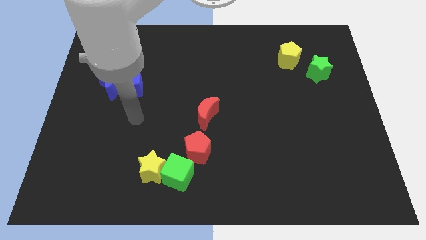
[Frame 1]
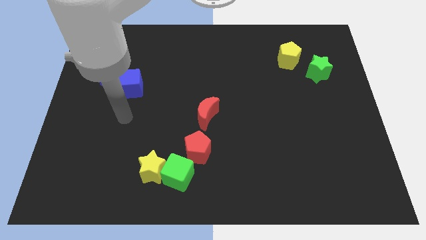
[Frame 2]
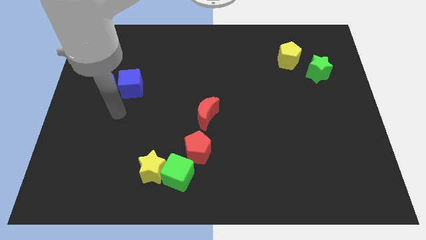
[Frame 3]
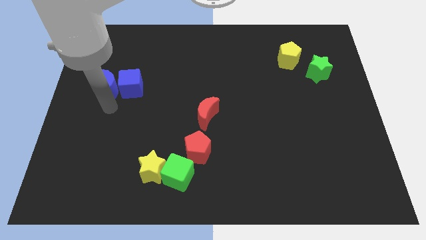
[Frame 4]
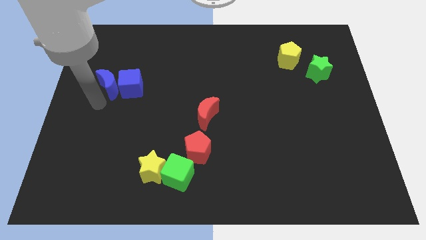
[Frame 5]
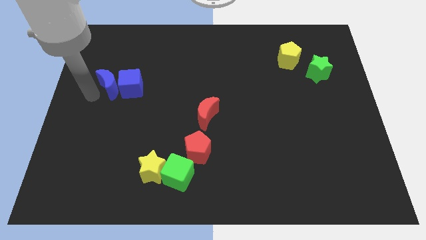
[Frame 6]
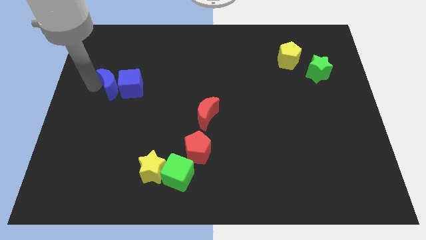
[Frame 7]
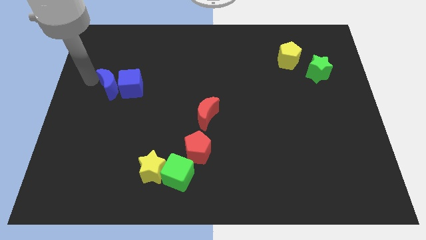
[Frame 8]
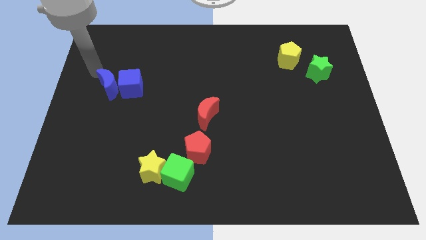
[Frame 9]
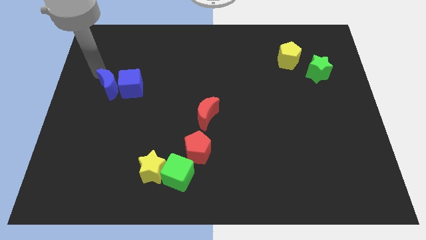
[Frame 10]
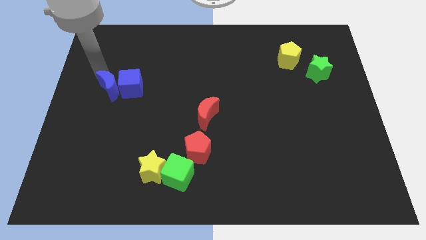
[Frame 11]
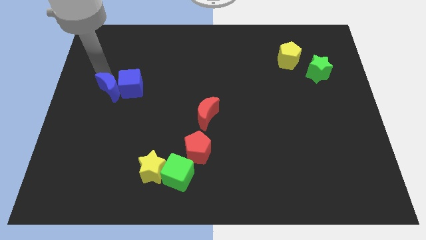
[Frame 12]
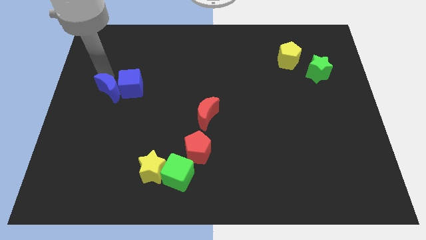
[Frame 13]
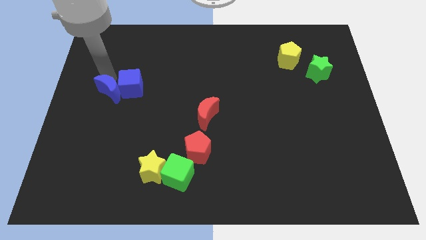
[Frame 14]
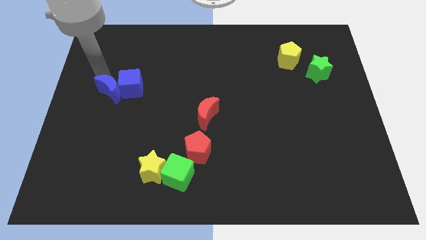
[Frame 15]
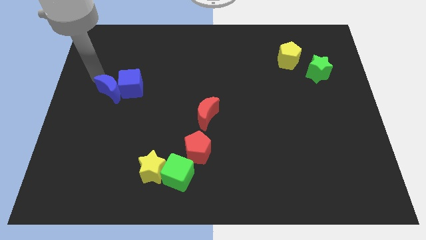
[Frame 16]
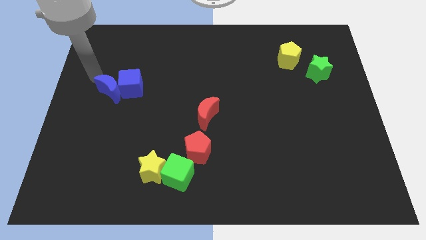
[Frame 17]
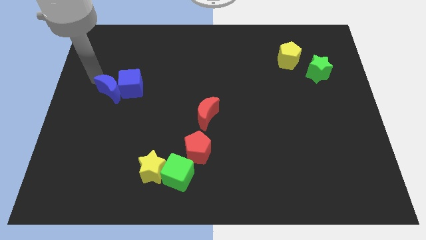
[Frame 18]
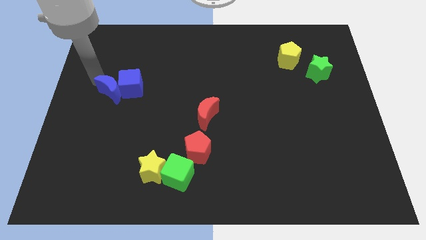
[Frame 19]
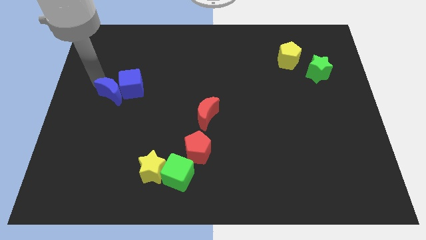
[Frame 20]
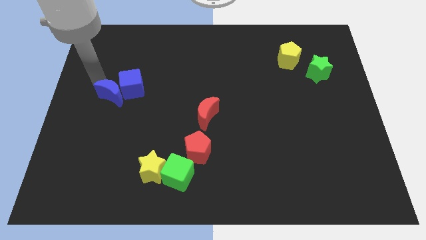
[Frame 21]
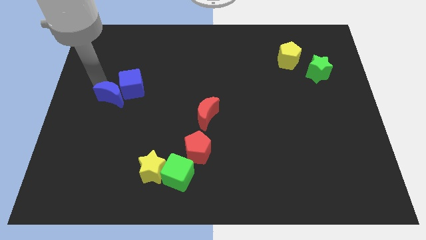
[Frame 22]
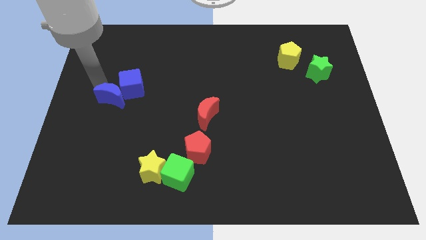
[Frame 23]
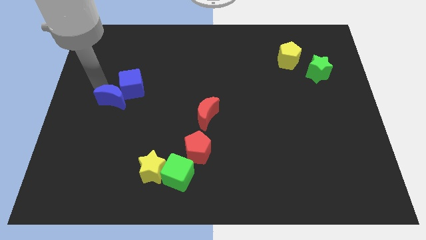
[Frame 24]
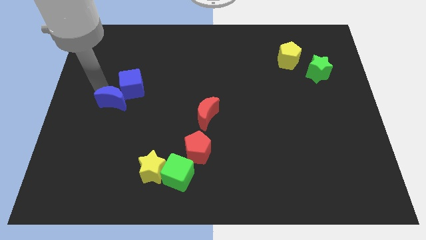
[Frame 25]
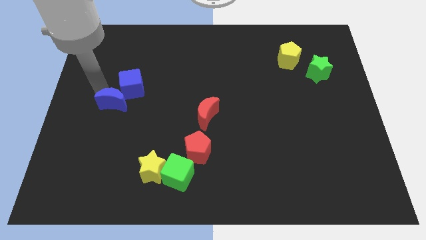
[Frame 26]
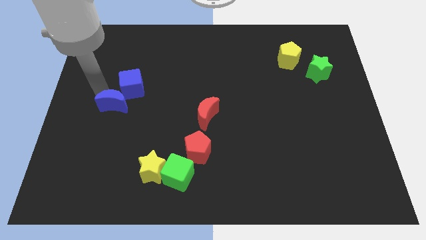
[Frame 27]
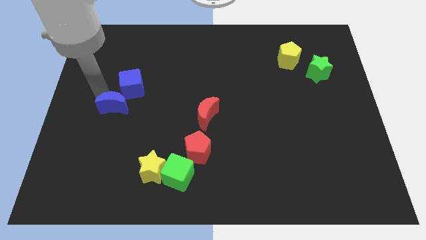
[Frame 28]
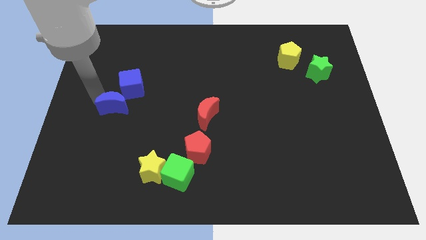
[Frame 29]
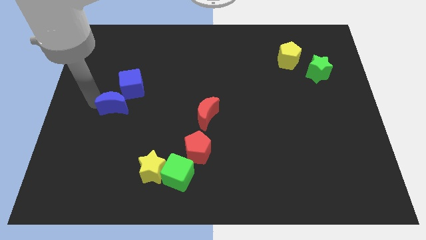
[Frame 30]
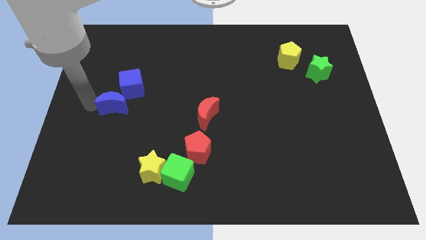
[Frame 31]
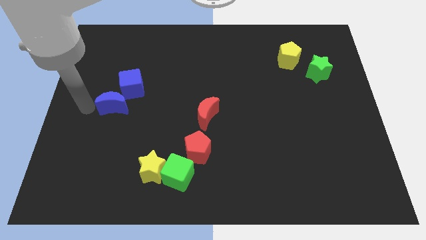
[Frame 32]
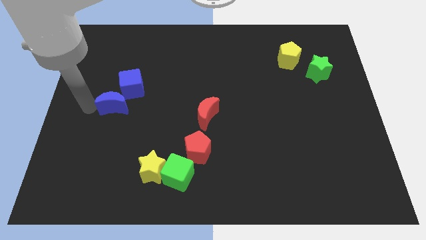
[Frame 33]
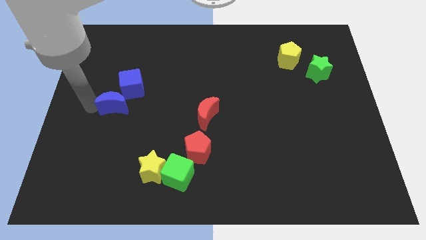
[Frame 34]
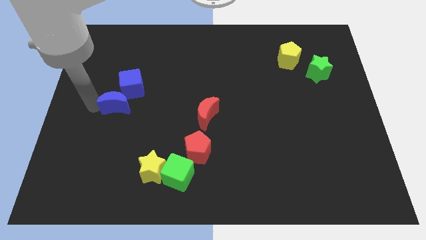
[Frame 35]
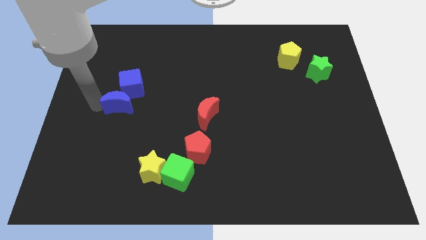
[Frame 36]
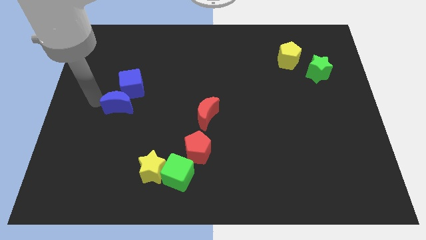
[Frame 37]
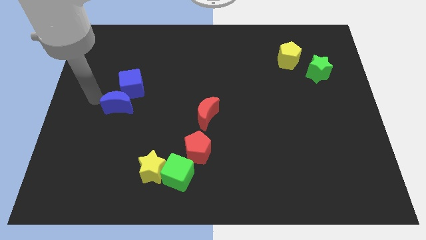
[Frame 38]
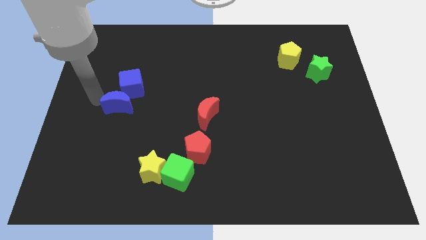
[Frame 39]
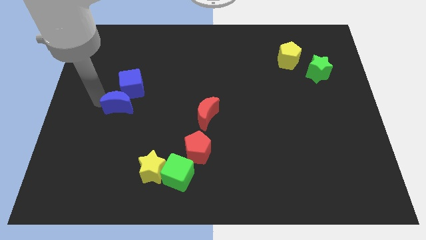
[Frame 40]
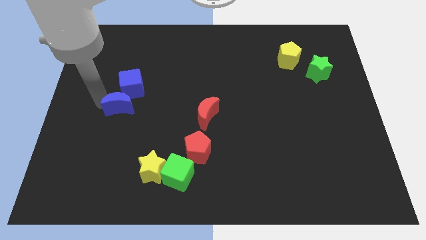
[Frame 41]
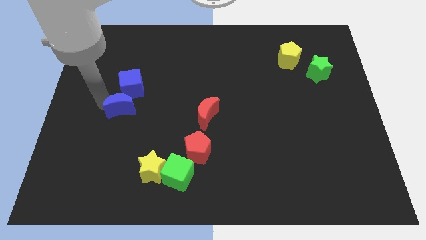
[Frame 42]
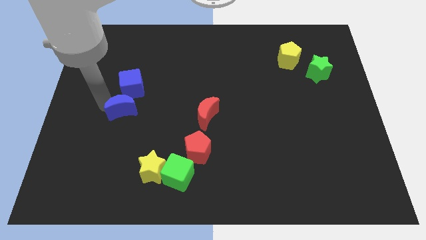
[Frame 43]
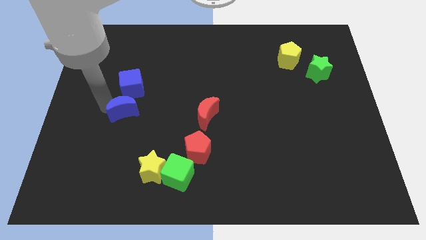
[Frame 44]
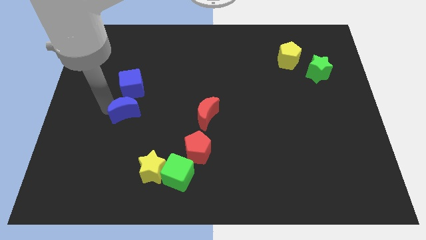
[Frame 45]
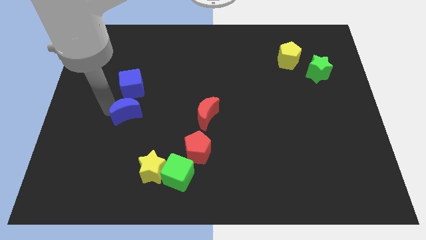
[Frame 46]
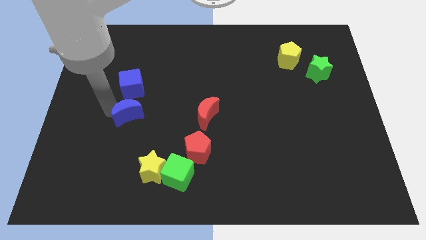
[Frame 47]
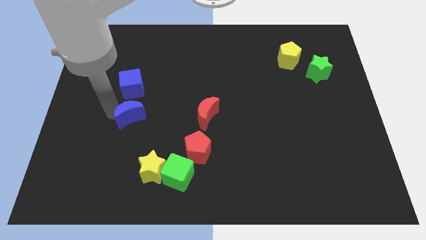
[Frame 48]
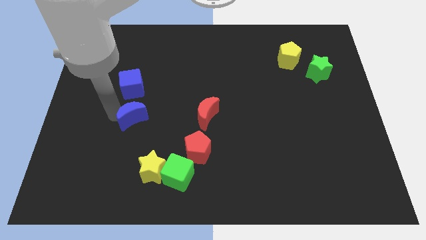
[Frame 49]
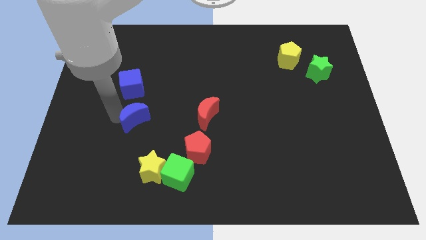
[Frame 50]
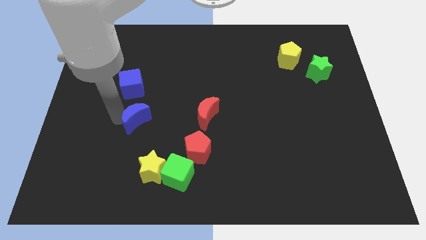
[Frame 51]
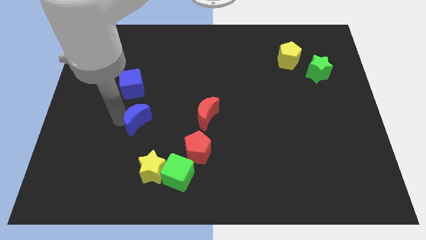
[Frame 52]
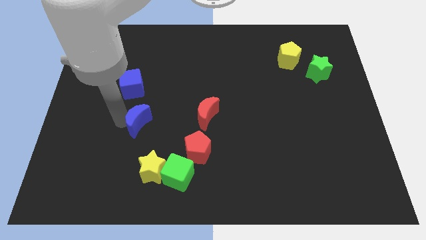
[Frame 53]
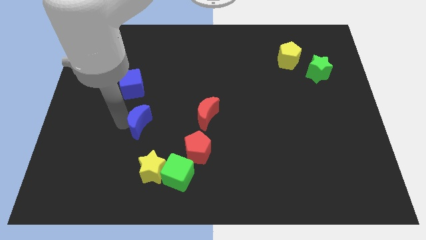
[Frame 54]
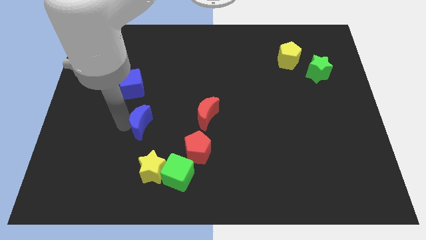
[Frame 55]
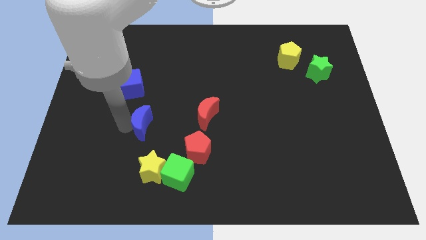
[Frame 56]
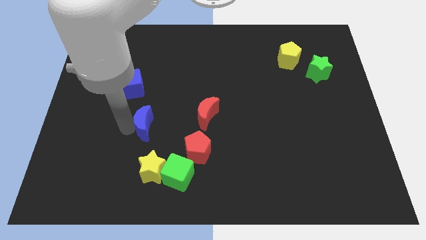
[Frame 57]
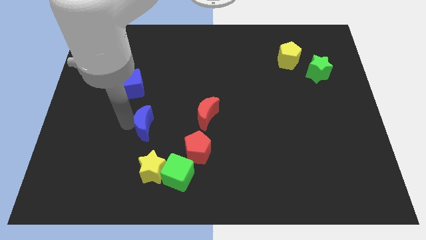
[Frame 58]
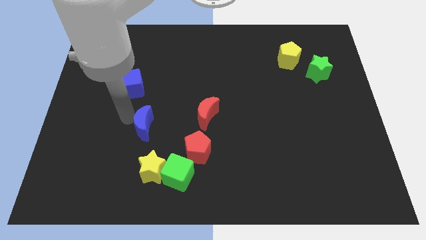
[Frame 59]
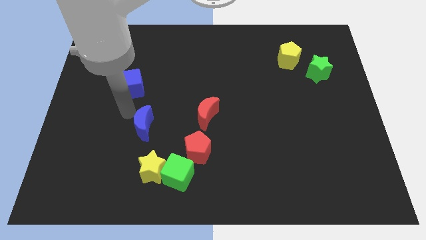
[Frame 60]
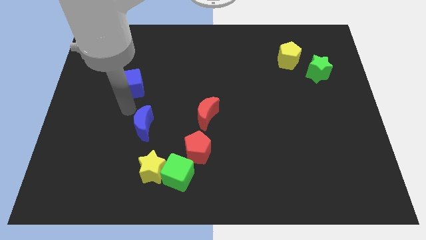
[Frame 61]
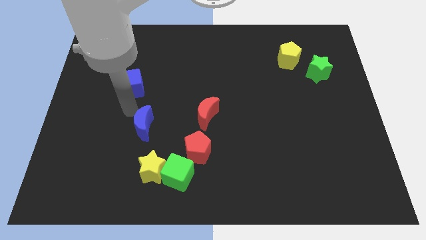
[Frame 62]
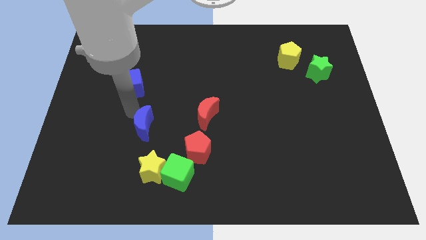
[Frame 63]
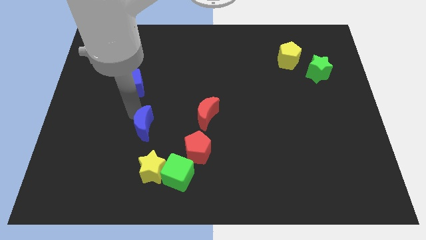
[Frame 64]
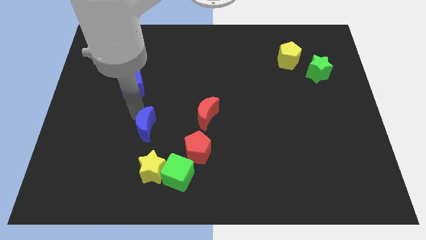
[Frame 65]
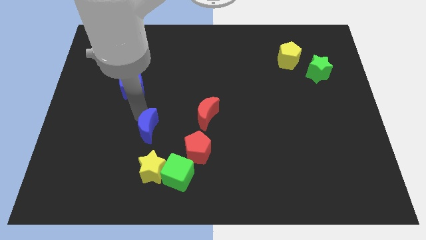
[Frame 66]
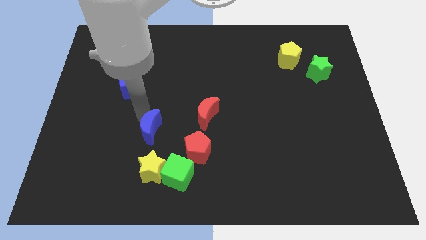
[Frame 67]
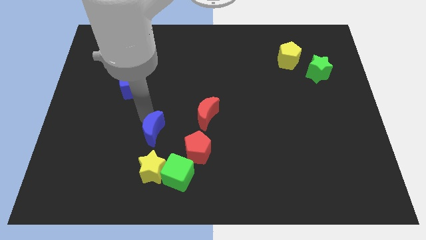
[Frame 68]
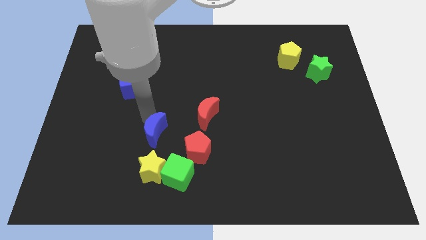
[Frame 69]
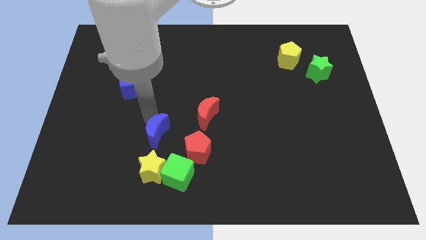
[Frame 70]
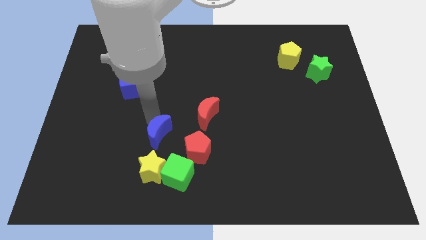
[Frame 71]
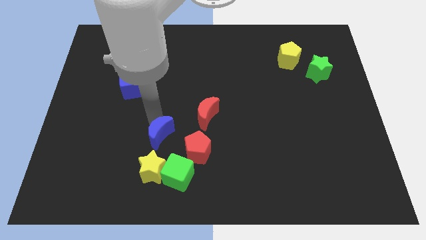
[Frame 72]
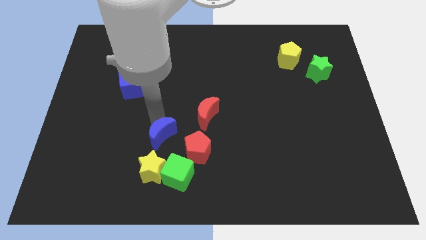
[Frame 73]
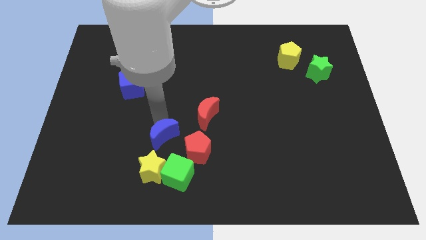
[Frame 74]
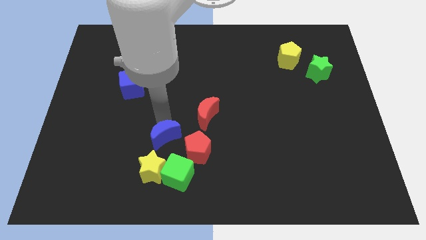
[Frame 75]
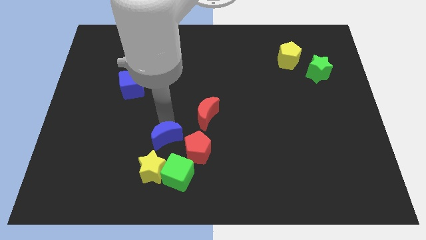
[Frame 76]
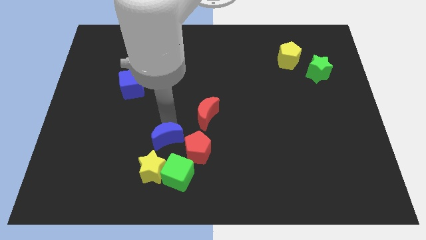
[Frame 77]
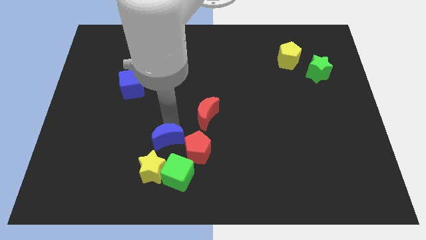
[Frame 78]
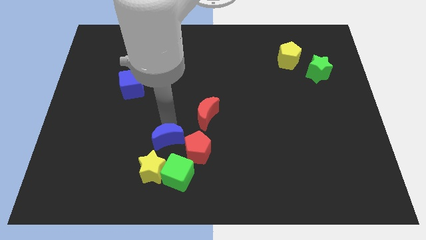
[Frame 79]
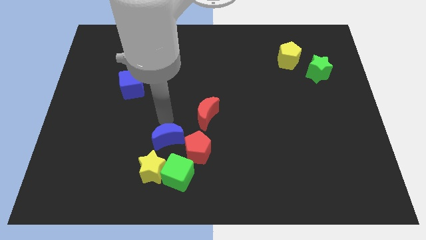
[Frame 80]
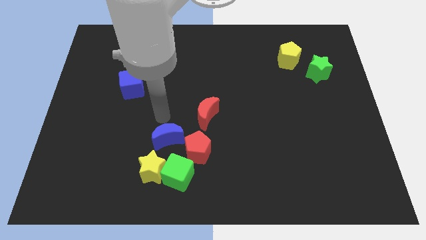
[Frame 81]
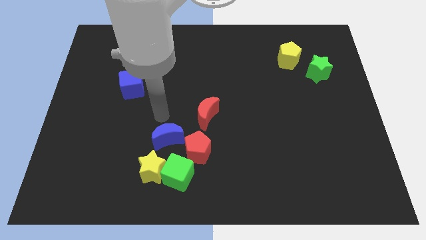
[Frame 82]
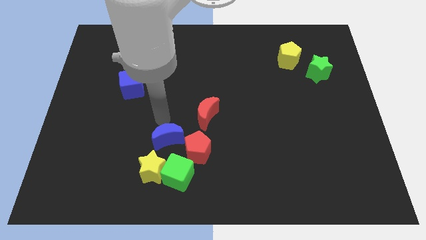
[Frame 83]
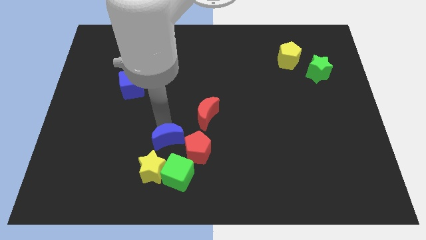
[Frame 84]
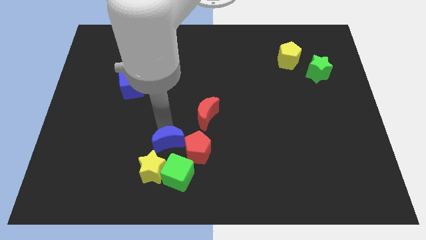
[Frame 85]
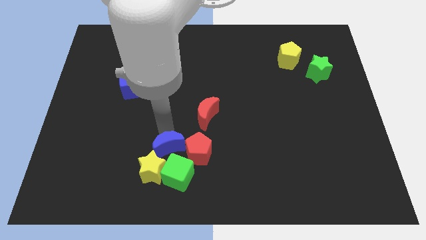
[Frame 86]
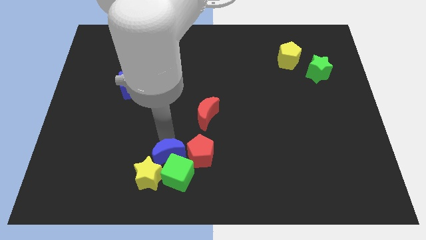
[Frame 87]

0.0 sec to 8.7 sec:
move the blue moon to the green cube
